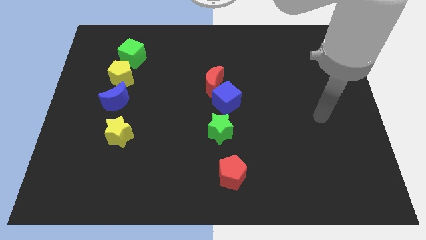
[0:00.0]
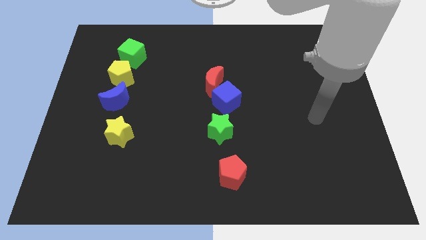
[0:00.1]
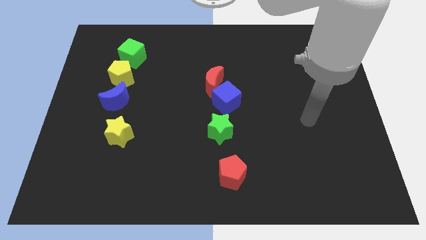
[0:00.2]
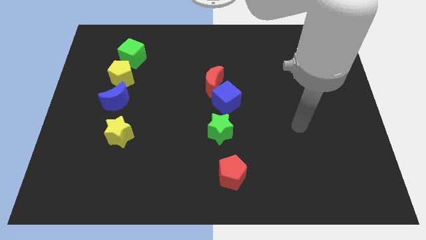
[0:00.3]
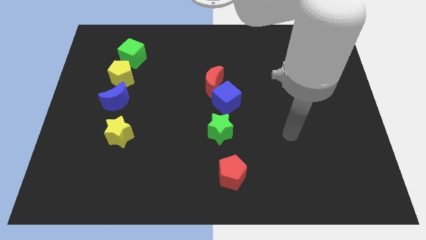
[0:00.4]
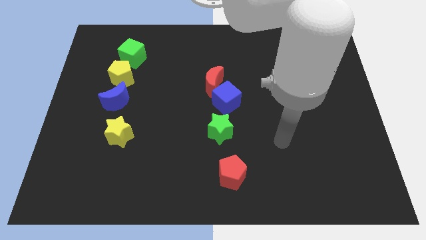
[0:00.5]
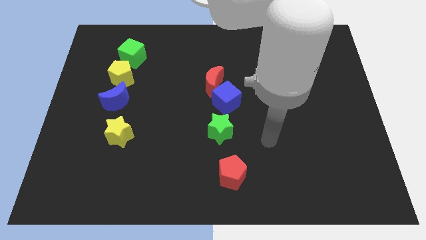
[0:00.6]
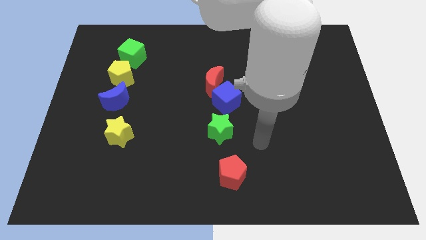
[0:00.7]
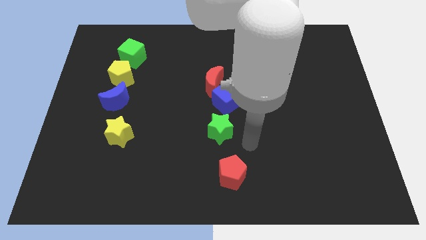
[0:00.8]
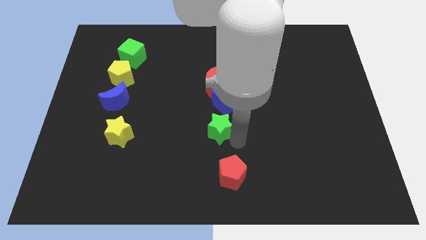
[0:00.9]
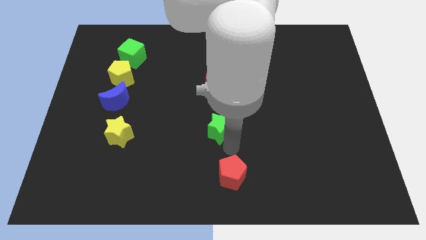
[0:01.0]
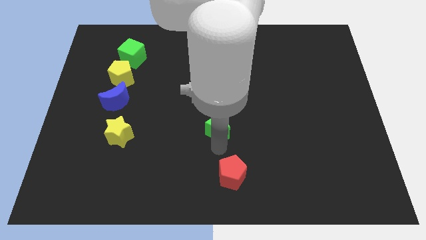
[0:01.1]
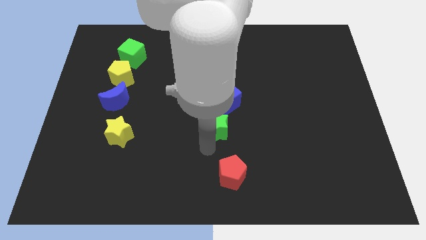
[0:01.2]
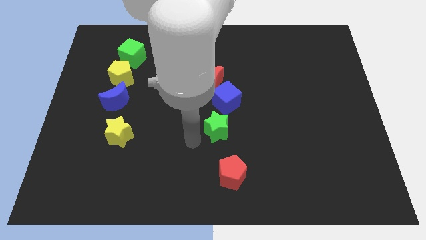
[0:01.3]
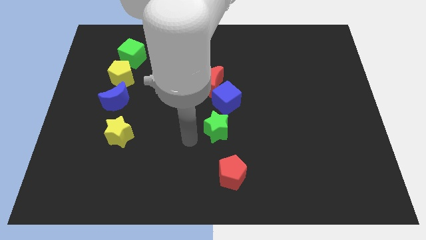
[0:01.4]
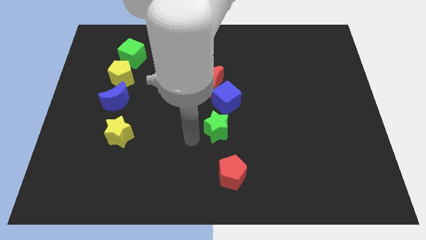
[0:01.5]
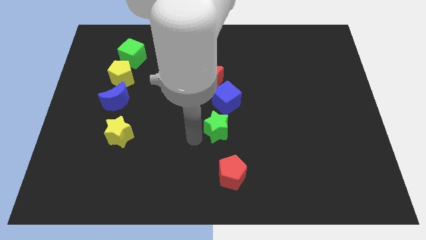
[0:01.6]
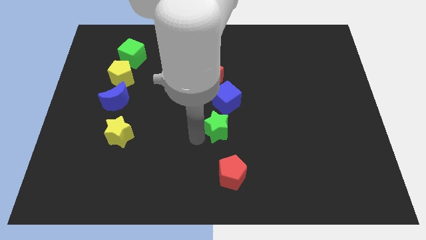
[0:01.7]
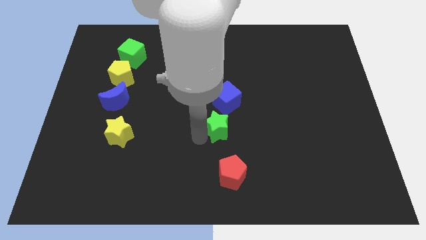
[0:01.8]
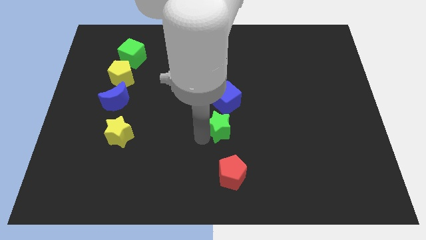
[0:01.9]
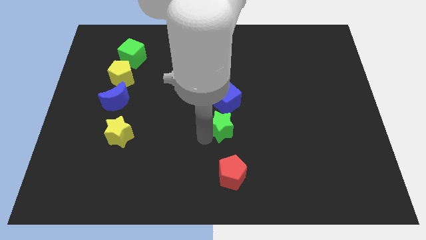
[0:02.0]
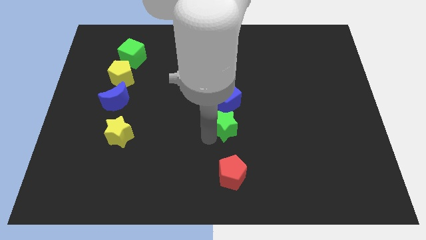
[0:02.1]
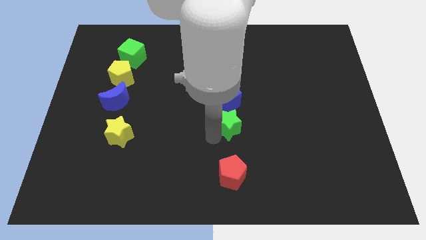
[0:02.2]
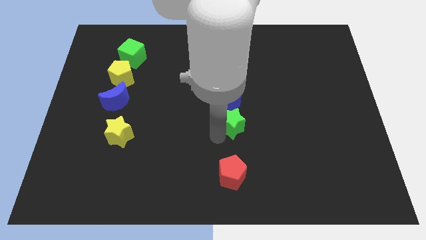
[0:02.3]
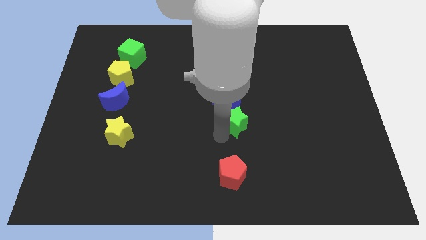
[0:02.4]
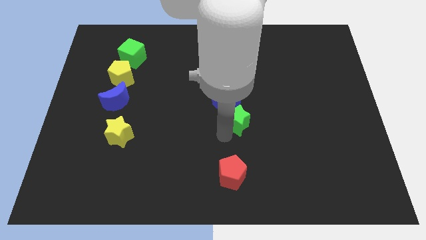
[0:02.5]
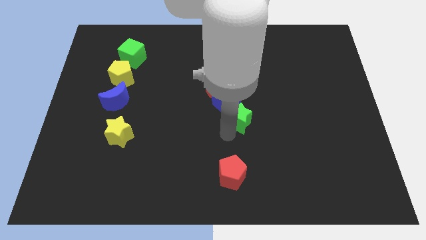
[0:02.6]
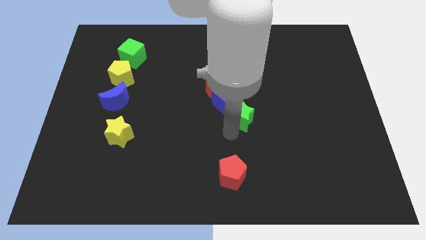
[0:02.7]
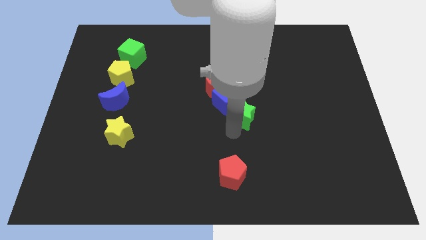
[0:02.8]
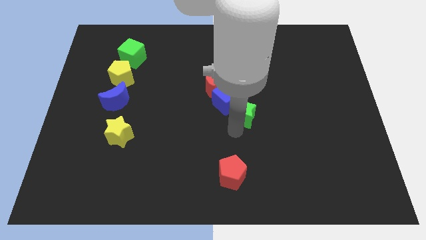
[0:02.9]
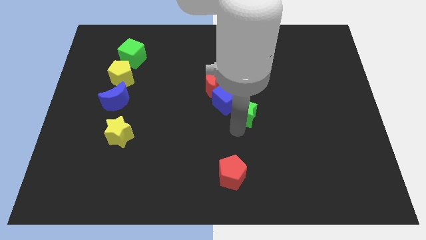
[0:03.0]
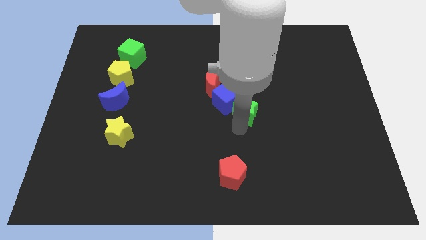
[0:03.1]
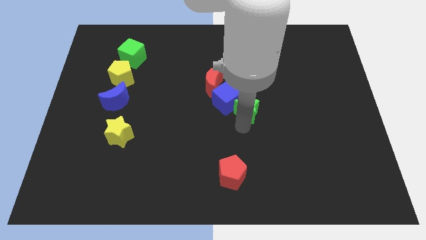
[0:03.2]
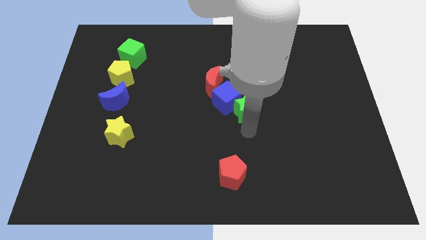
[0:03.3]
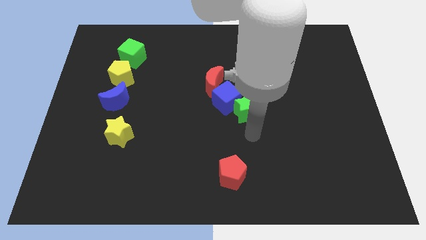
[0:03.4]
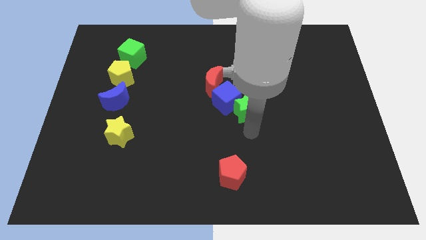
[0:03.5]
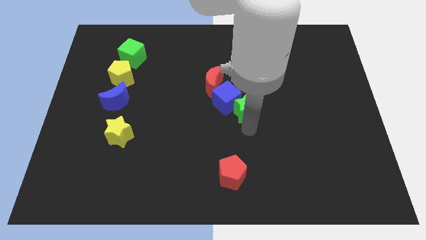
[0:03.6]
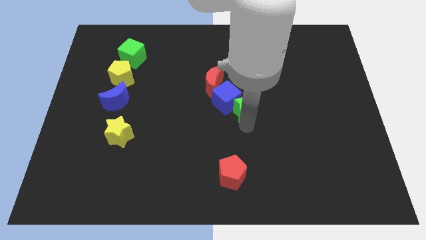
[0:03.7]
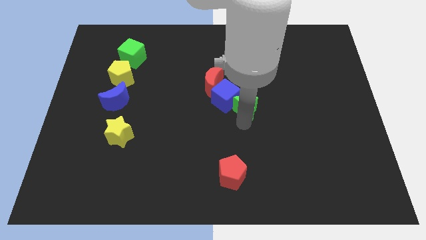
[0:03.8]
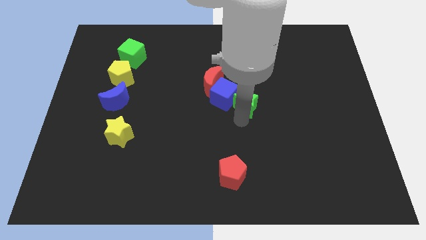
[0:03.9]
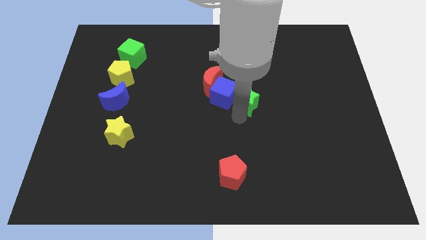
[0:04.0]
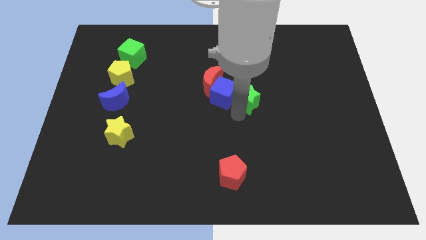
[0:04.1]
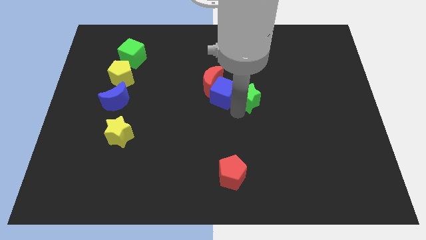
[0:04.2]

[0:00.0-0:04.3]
slightly move the green star up

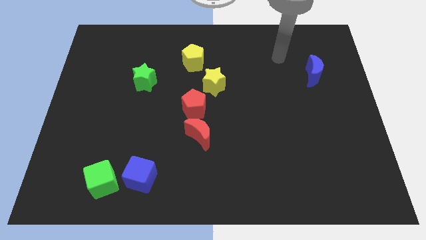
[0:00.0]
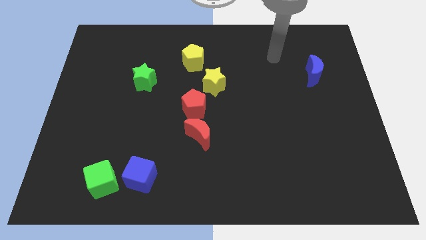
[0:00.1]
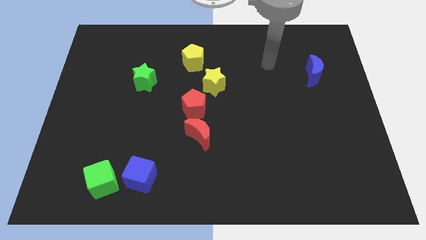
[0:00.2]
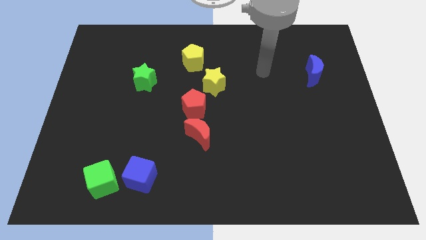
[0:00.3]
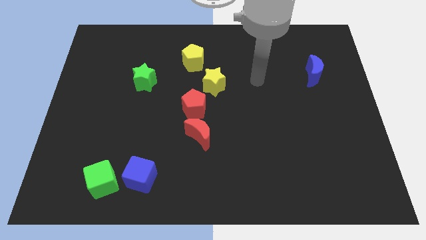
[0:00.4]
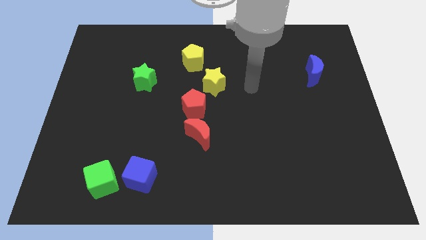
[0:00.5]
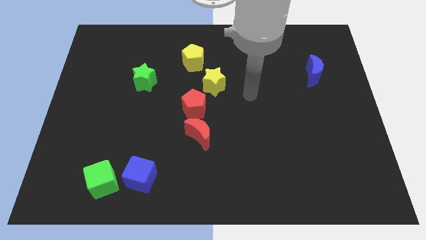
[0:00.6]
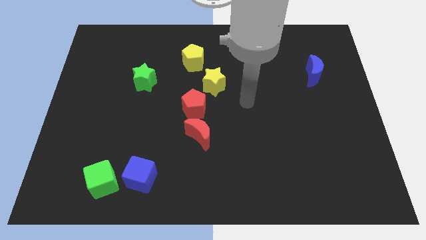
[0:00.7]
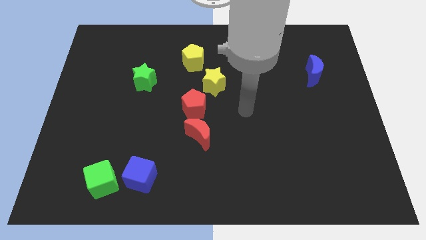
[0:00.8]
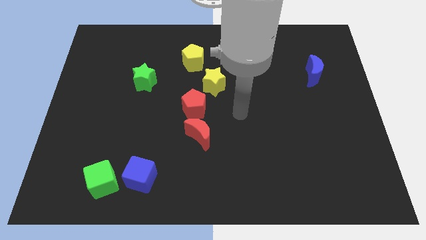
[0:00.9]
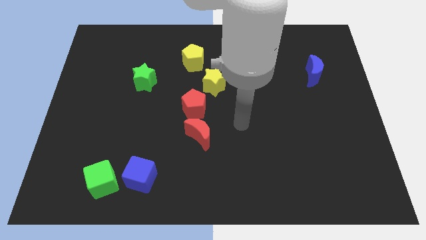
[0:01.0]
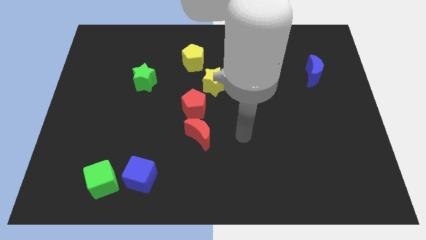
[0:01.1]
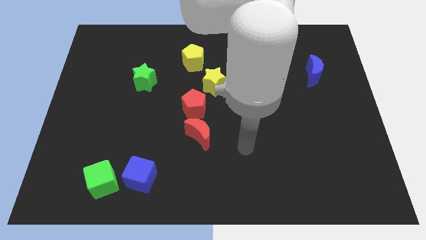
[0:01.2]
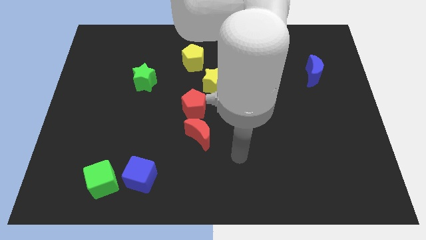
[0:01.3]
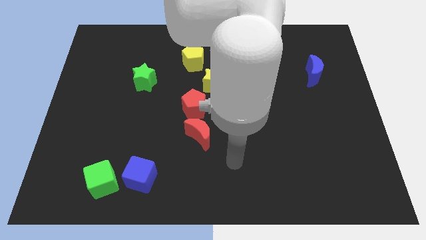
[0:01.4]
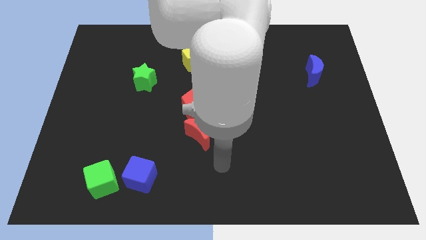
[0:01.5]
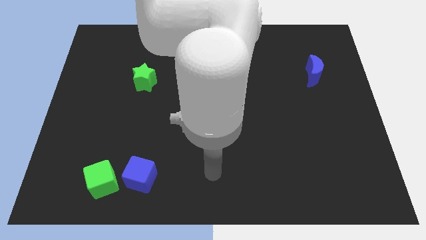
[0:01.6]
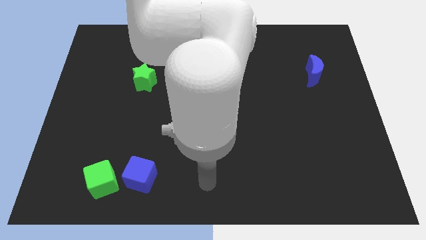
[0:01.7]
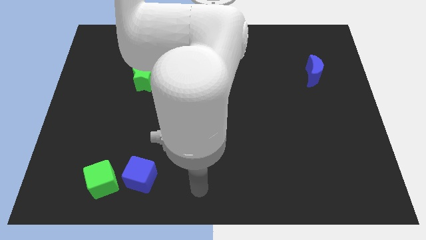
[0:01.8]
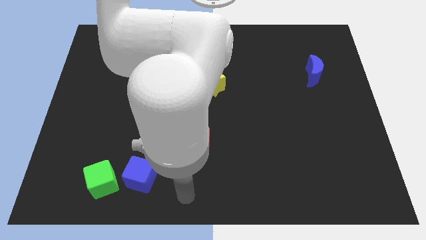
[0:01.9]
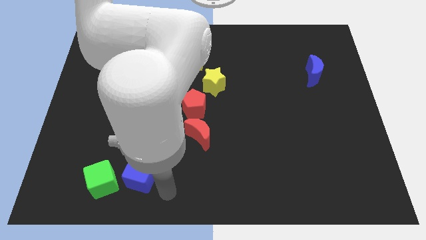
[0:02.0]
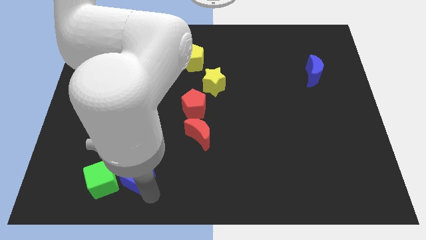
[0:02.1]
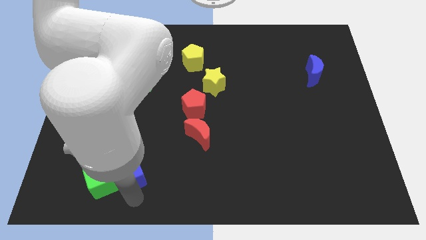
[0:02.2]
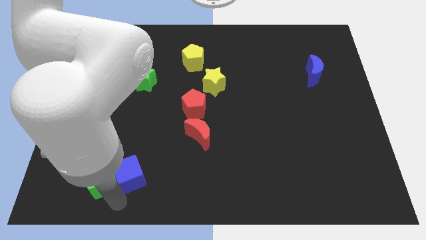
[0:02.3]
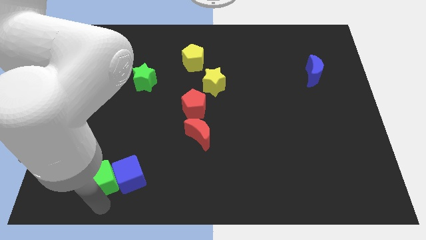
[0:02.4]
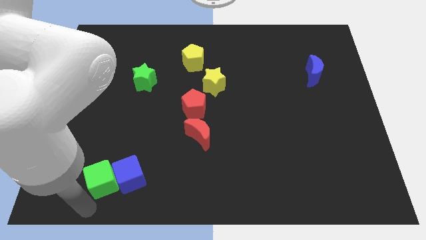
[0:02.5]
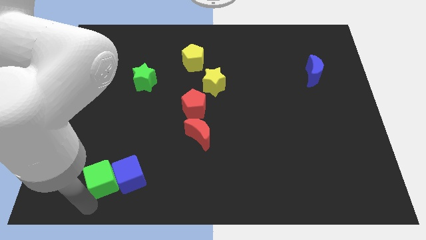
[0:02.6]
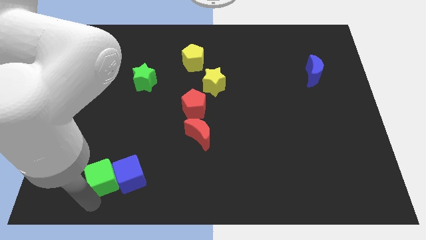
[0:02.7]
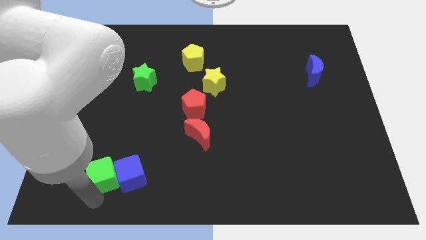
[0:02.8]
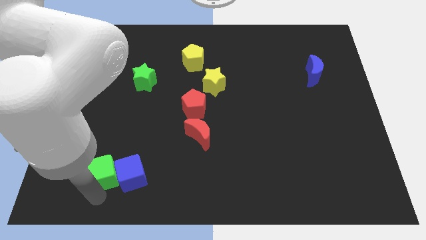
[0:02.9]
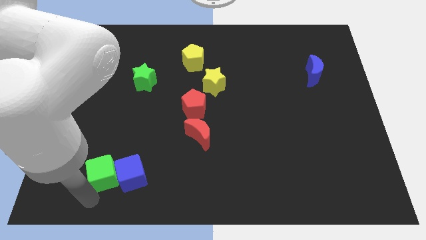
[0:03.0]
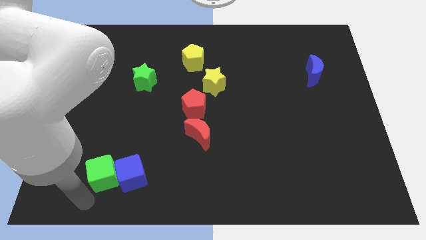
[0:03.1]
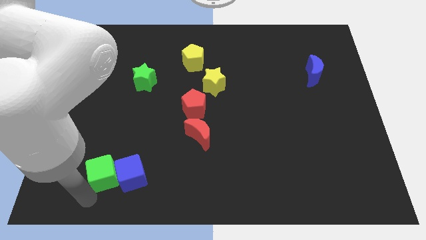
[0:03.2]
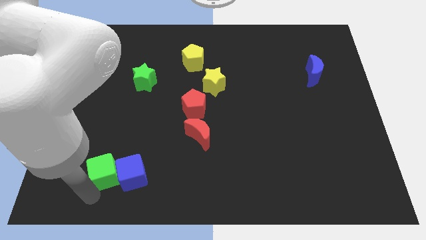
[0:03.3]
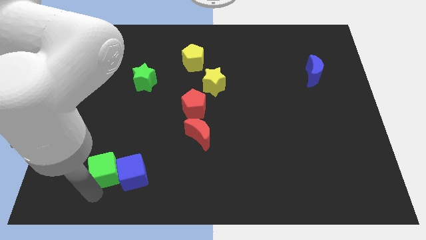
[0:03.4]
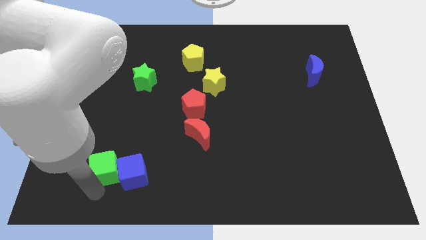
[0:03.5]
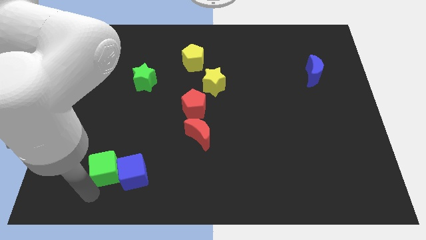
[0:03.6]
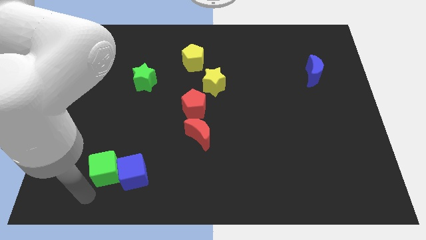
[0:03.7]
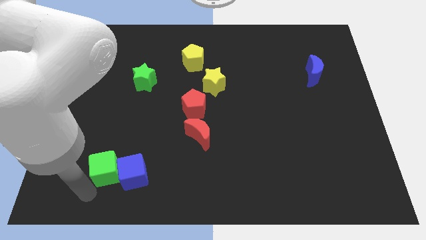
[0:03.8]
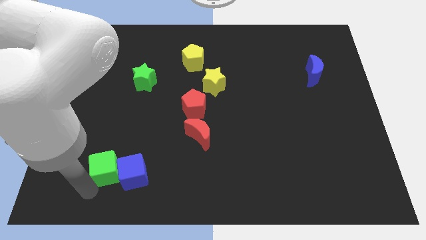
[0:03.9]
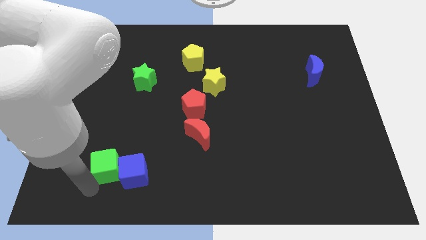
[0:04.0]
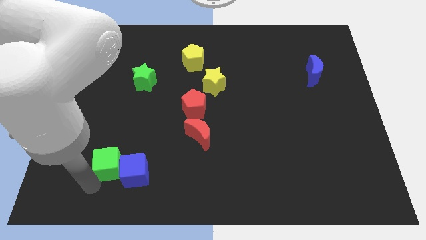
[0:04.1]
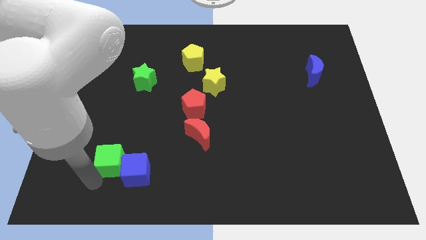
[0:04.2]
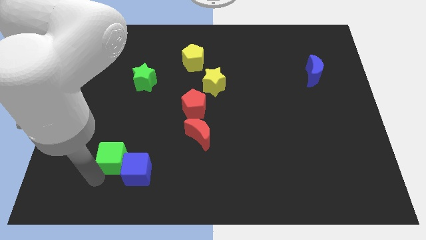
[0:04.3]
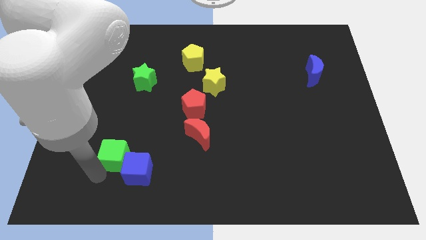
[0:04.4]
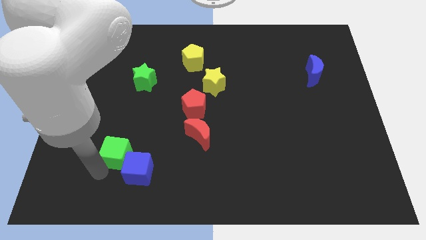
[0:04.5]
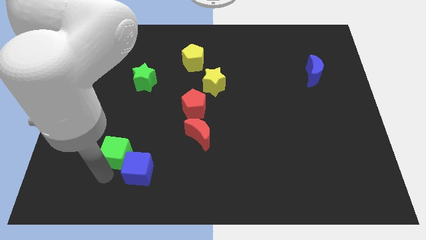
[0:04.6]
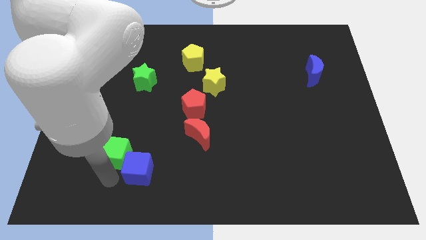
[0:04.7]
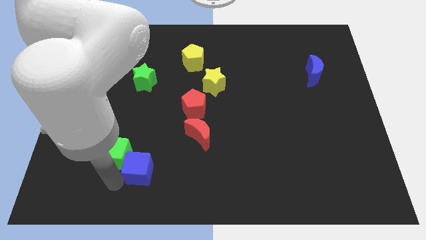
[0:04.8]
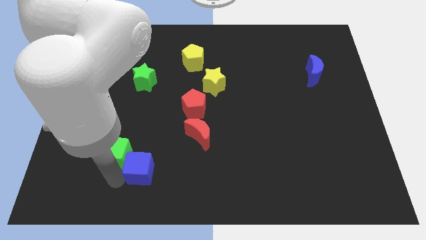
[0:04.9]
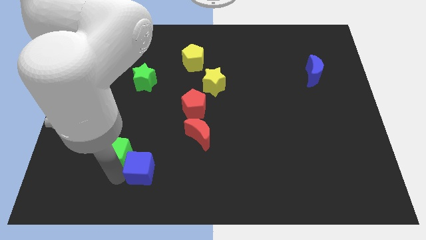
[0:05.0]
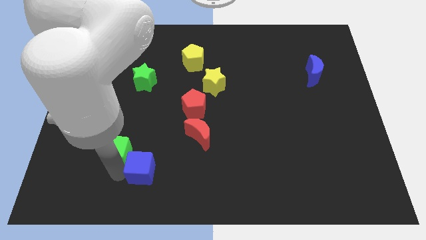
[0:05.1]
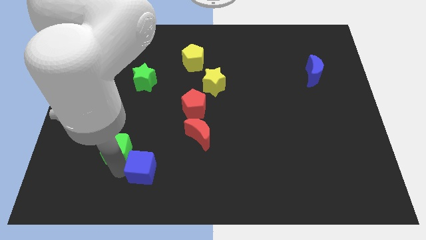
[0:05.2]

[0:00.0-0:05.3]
move the green cube up somewhat
